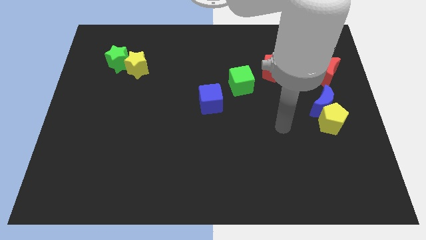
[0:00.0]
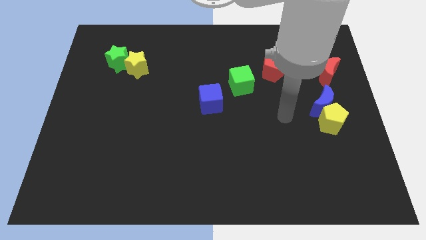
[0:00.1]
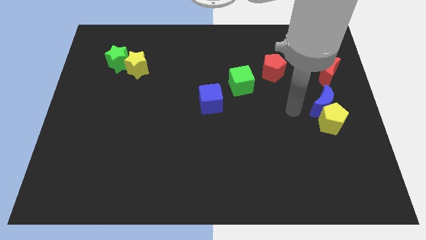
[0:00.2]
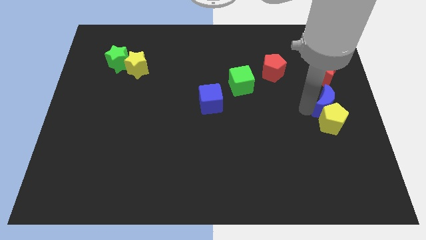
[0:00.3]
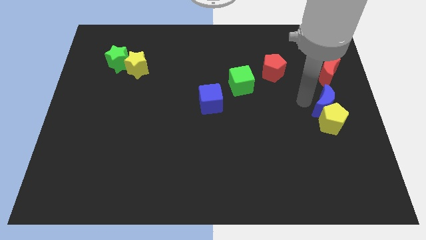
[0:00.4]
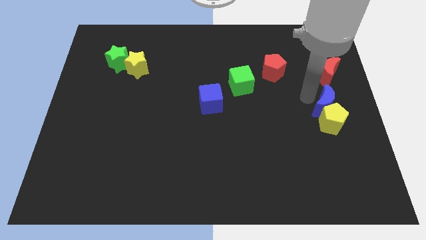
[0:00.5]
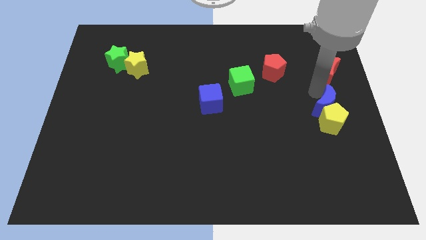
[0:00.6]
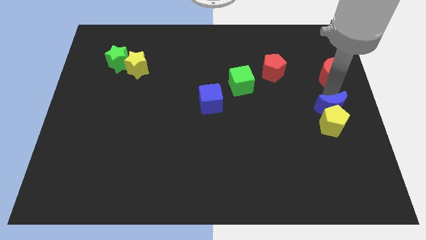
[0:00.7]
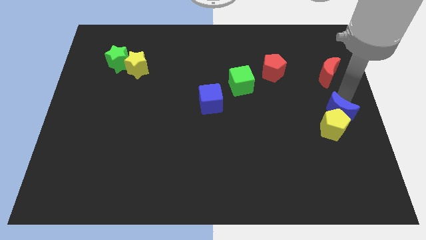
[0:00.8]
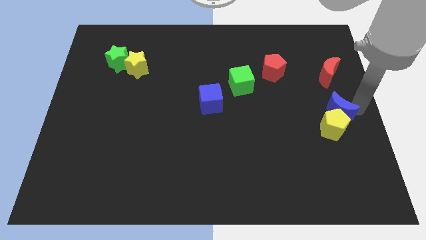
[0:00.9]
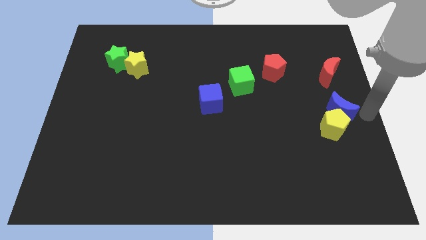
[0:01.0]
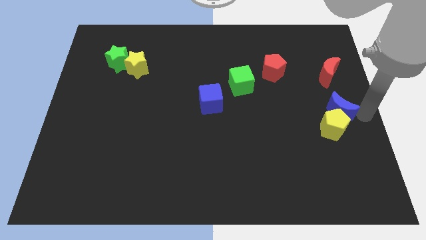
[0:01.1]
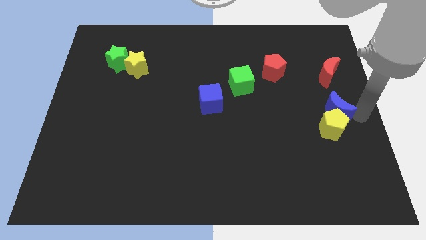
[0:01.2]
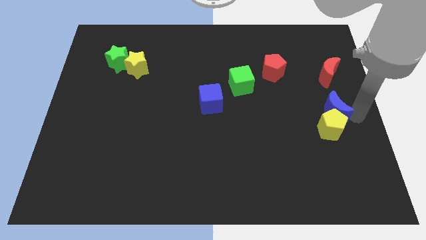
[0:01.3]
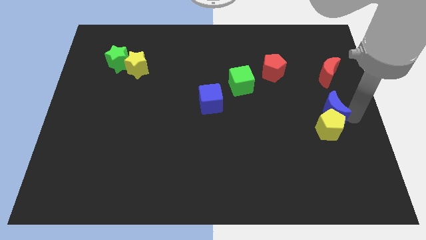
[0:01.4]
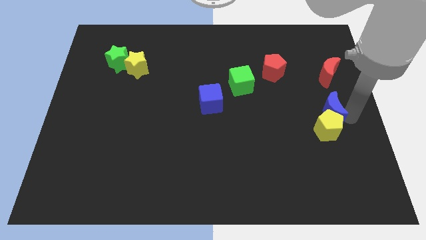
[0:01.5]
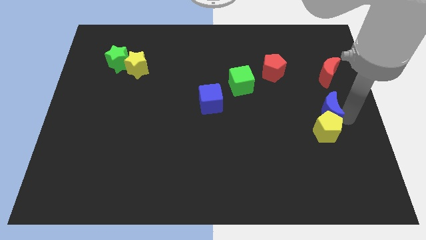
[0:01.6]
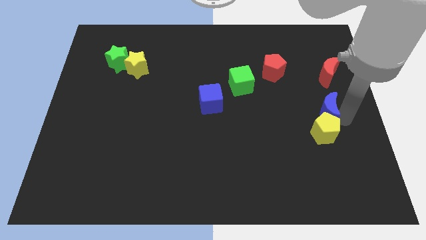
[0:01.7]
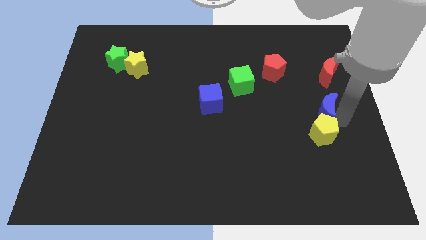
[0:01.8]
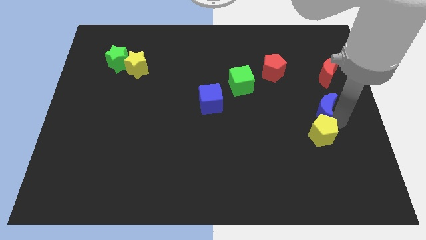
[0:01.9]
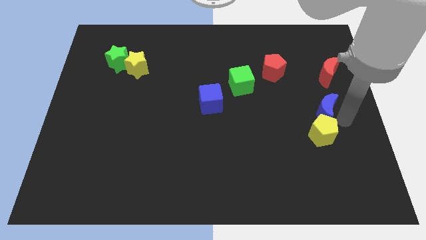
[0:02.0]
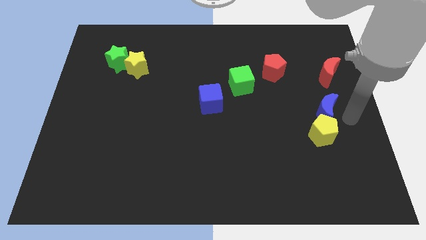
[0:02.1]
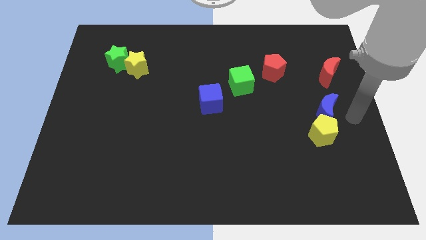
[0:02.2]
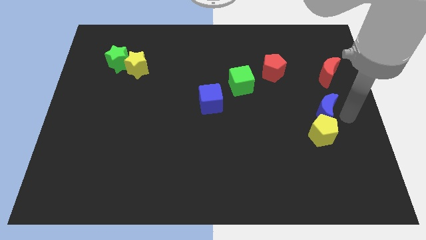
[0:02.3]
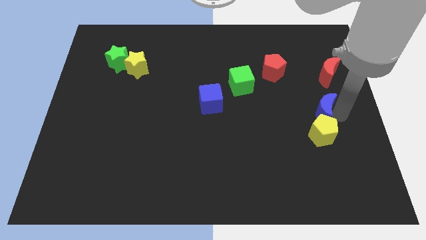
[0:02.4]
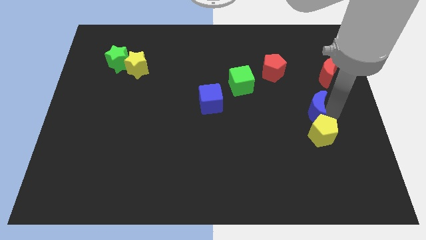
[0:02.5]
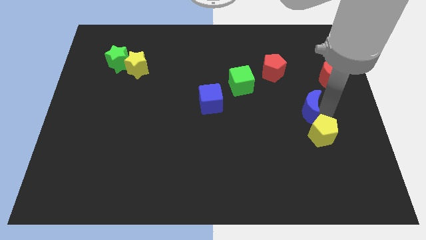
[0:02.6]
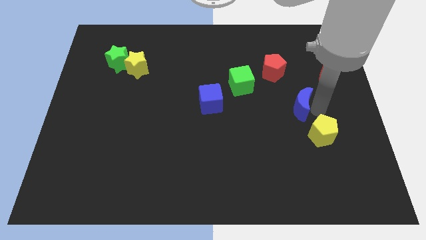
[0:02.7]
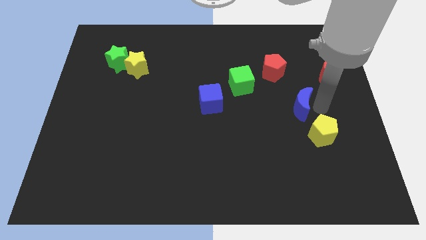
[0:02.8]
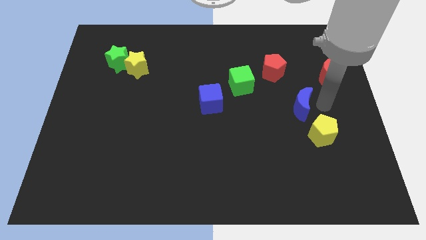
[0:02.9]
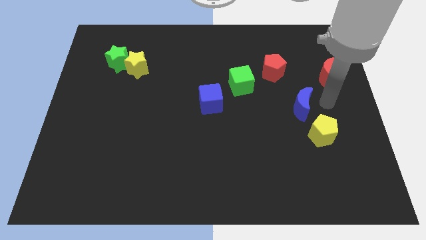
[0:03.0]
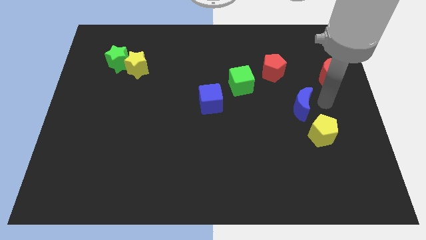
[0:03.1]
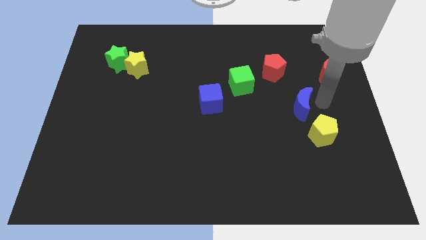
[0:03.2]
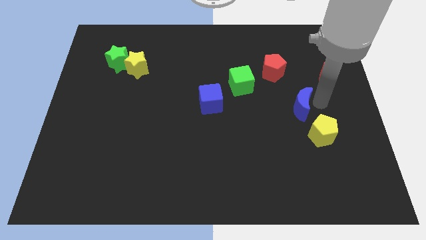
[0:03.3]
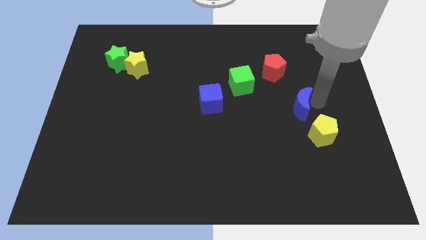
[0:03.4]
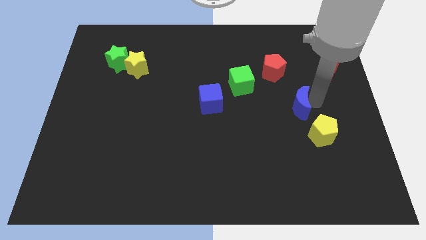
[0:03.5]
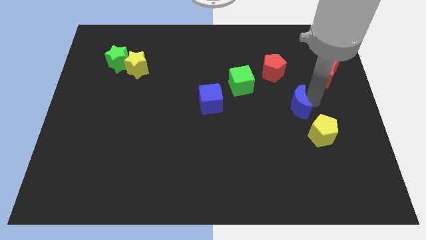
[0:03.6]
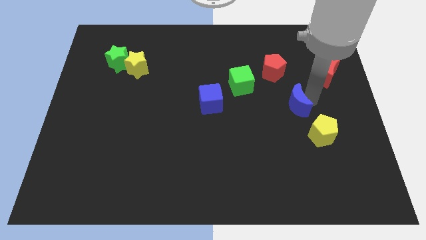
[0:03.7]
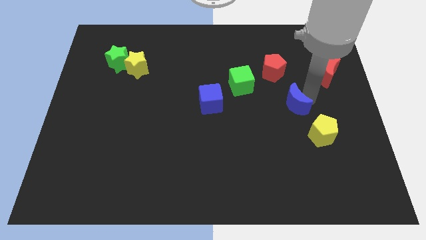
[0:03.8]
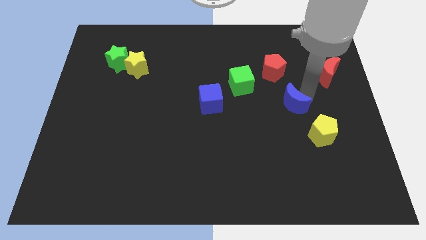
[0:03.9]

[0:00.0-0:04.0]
move the blue moon left somewhat

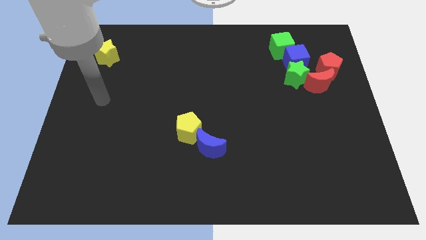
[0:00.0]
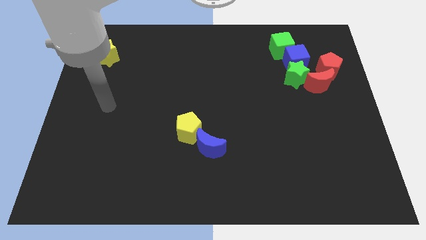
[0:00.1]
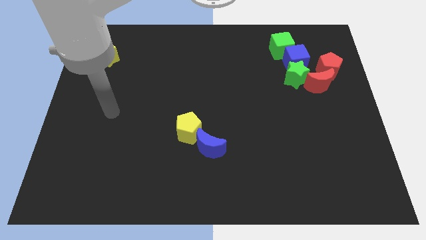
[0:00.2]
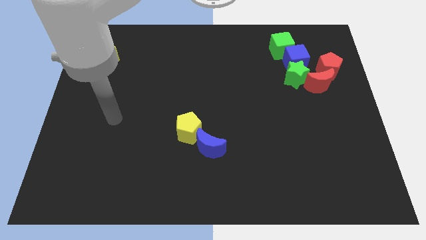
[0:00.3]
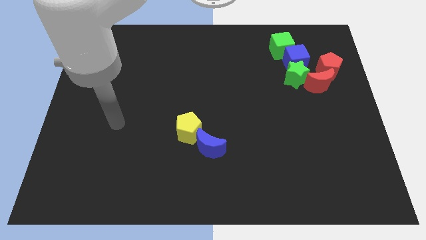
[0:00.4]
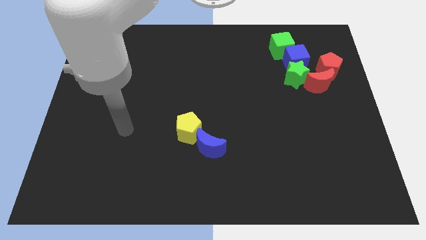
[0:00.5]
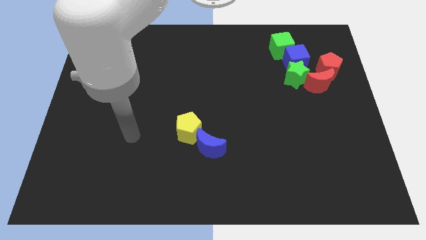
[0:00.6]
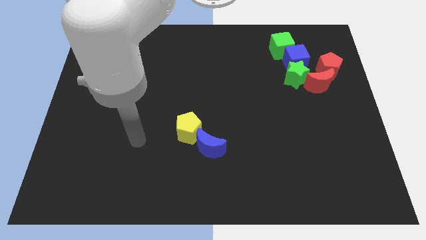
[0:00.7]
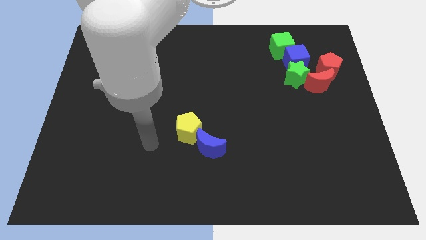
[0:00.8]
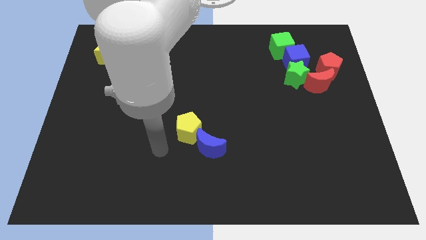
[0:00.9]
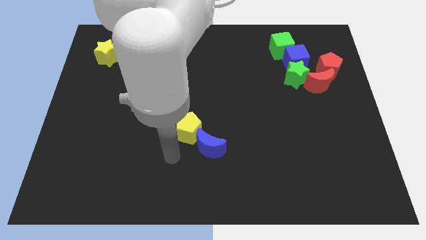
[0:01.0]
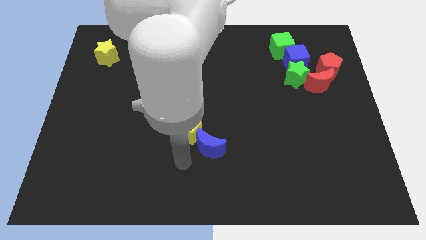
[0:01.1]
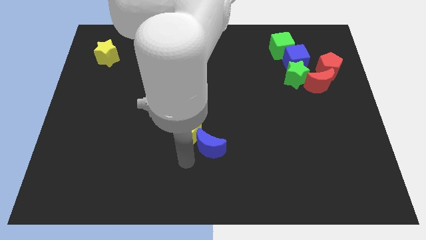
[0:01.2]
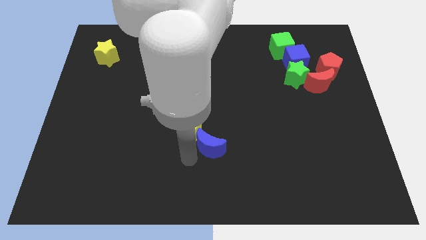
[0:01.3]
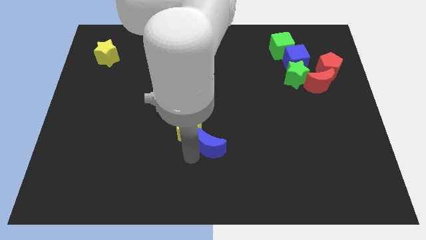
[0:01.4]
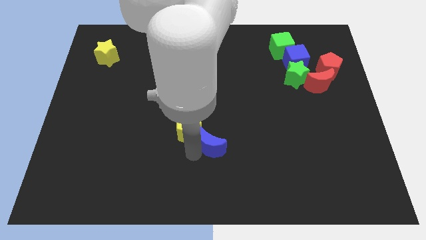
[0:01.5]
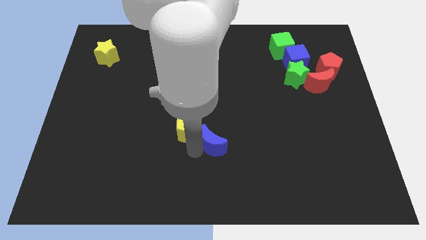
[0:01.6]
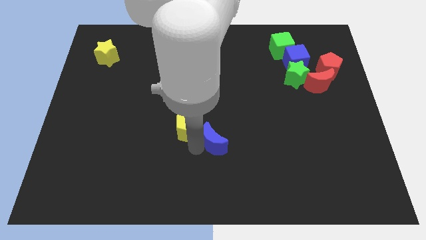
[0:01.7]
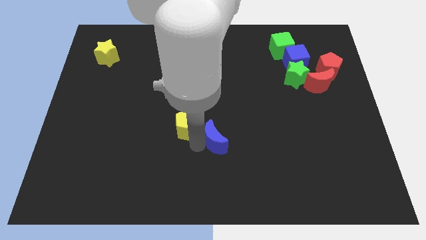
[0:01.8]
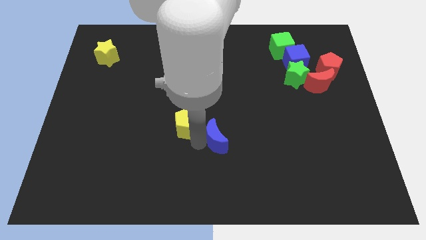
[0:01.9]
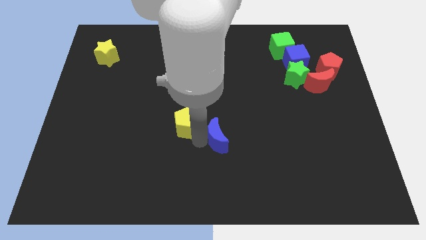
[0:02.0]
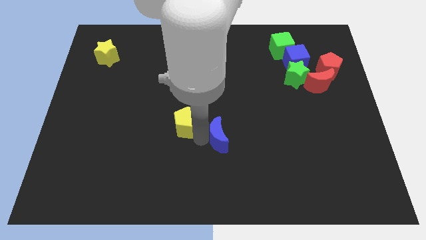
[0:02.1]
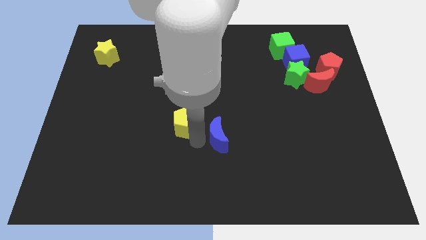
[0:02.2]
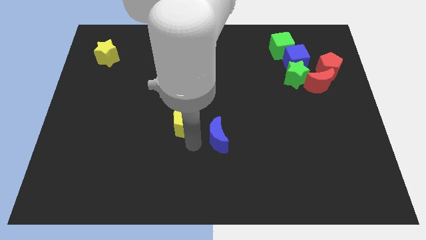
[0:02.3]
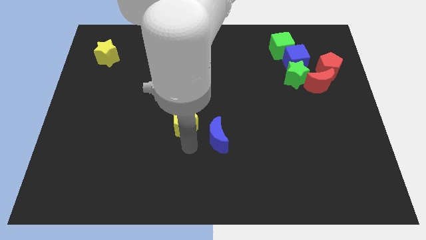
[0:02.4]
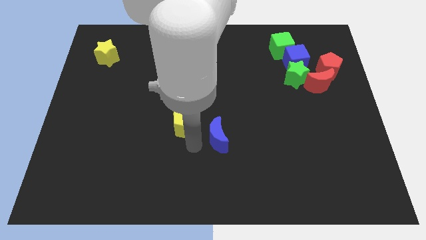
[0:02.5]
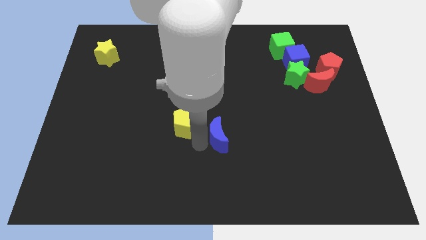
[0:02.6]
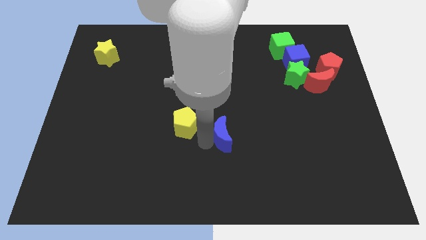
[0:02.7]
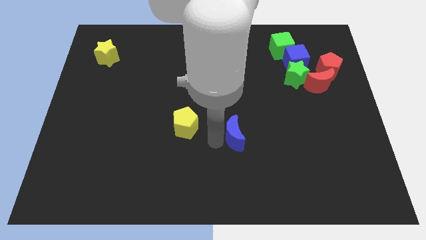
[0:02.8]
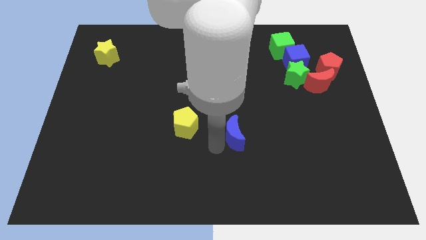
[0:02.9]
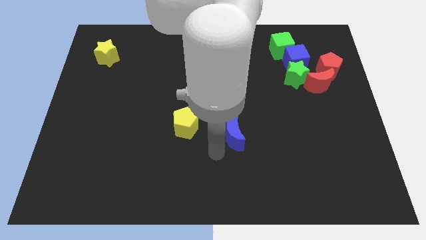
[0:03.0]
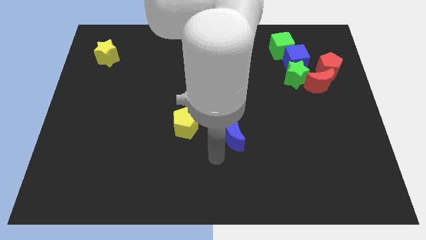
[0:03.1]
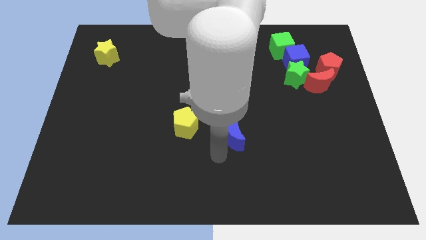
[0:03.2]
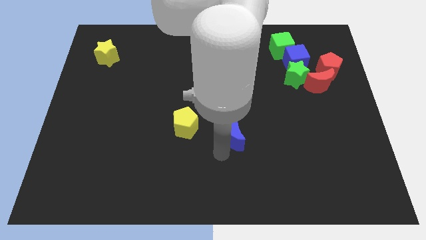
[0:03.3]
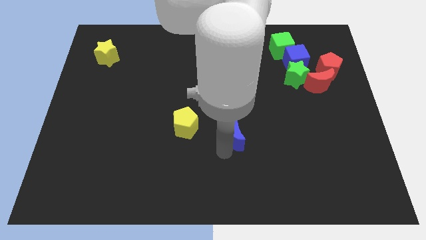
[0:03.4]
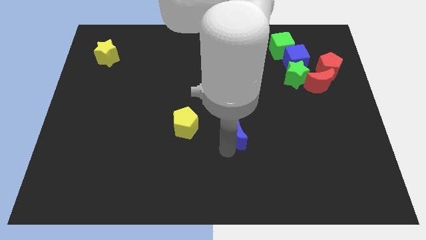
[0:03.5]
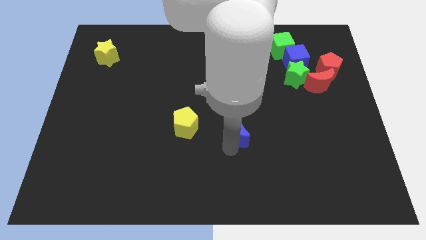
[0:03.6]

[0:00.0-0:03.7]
slightly slide the blue moon upwards and right

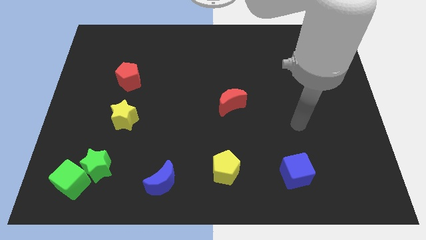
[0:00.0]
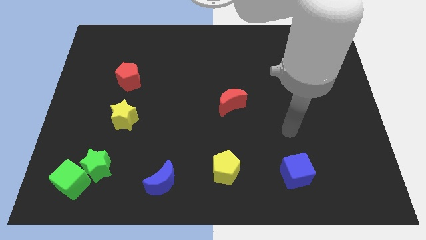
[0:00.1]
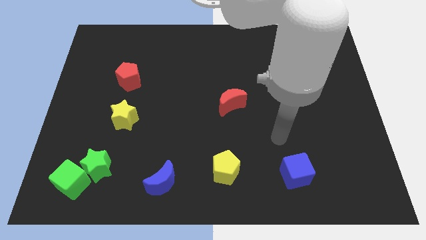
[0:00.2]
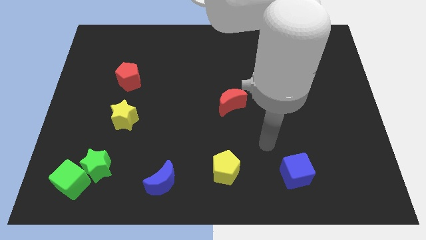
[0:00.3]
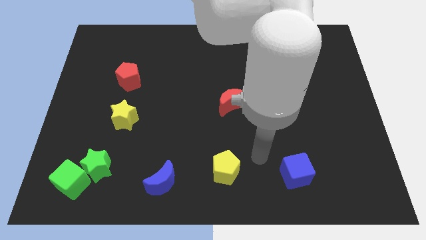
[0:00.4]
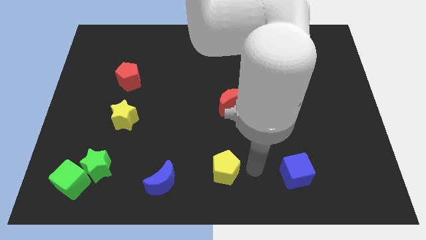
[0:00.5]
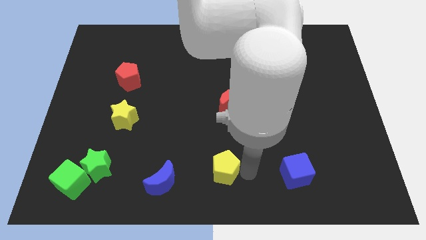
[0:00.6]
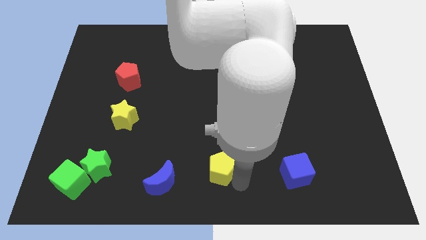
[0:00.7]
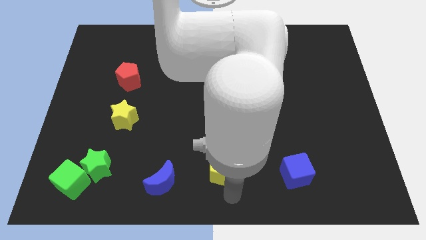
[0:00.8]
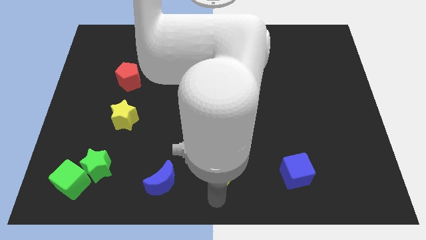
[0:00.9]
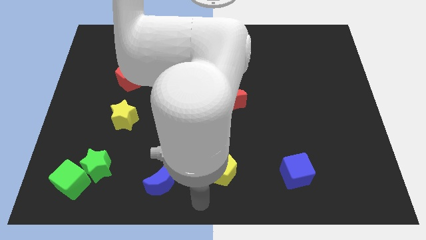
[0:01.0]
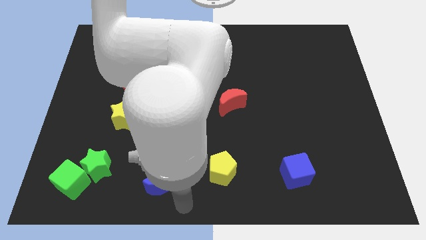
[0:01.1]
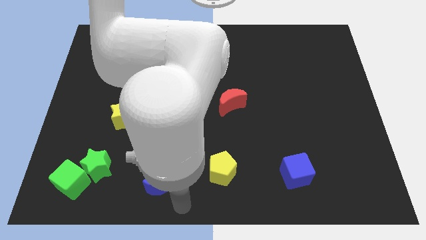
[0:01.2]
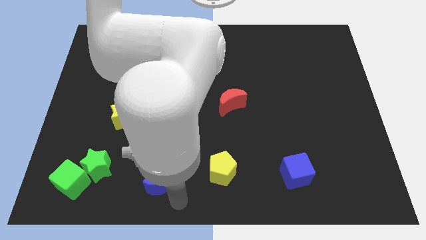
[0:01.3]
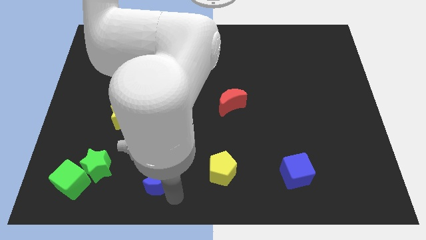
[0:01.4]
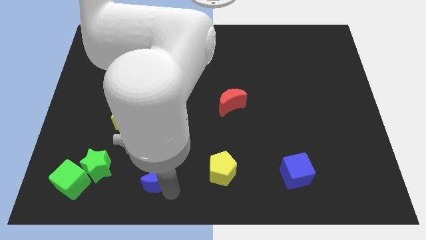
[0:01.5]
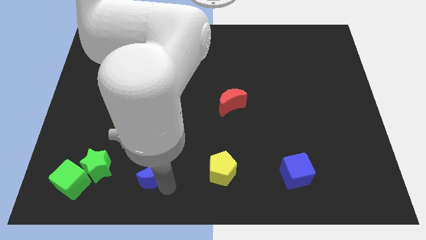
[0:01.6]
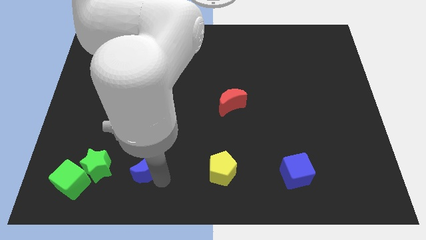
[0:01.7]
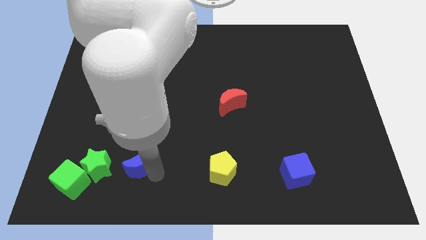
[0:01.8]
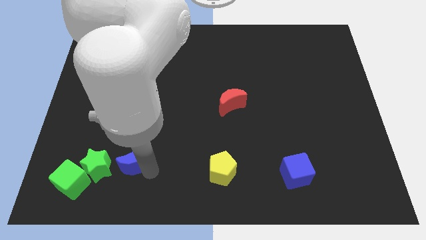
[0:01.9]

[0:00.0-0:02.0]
push the blue moon up and left a bit
